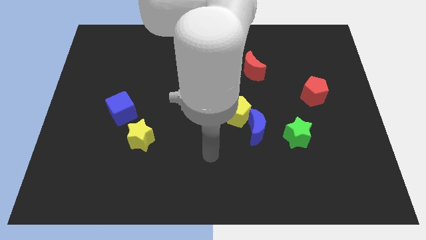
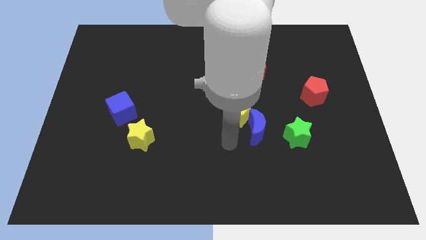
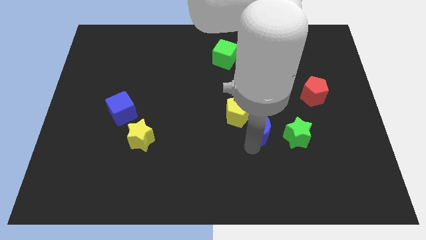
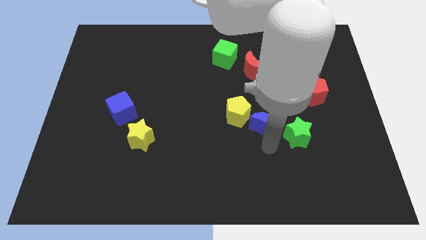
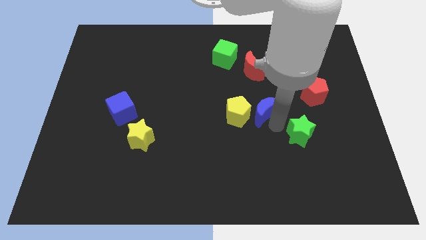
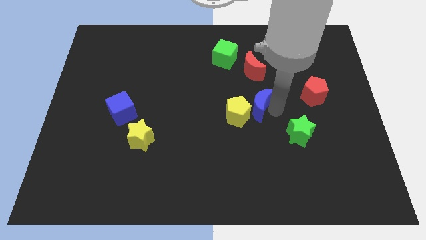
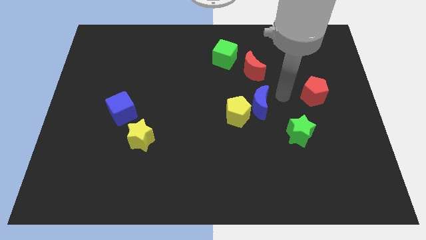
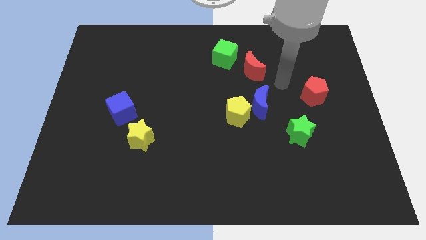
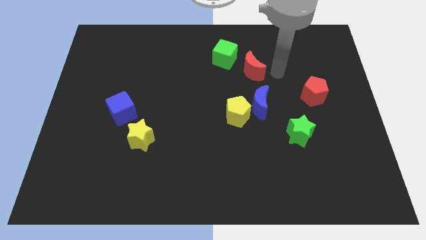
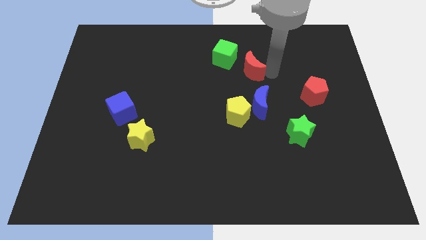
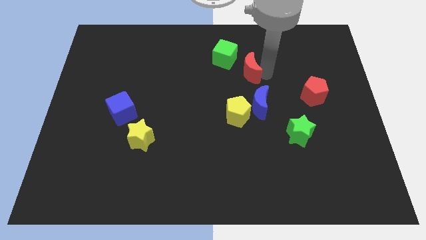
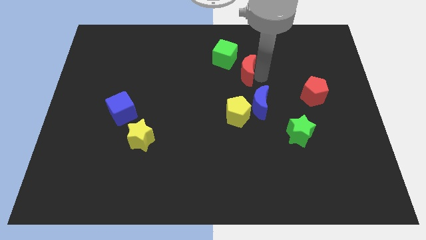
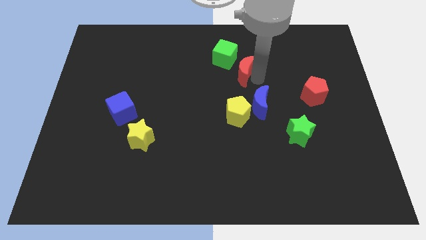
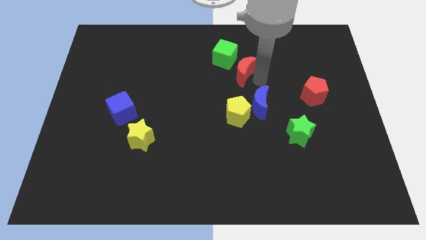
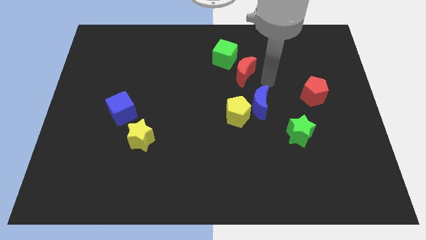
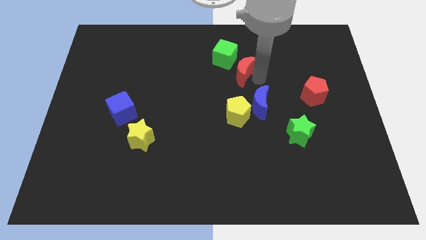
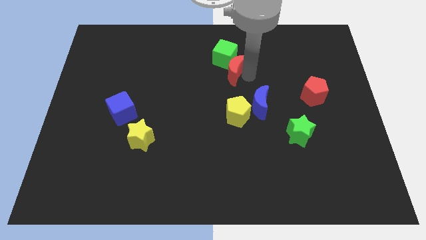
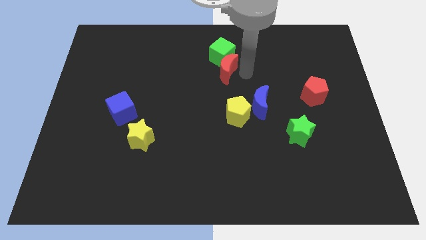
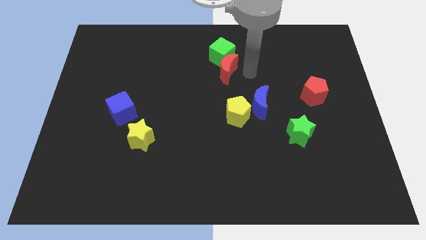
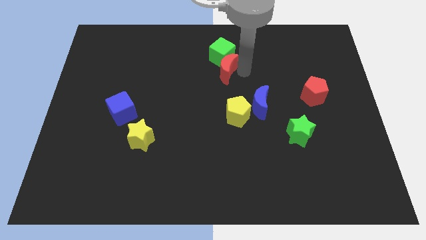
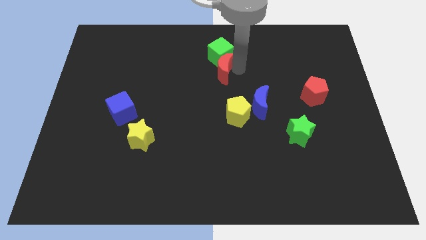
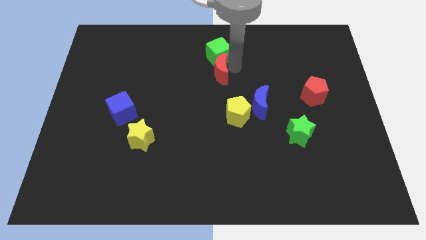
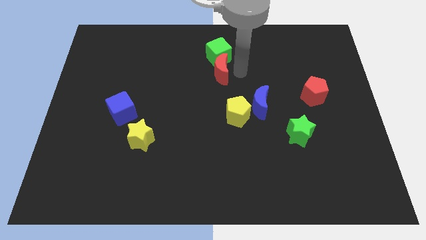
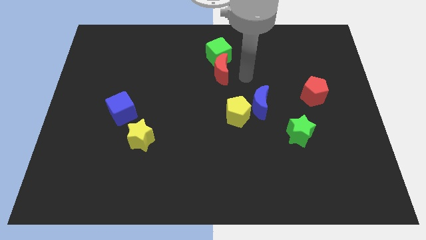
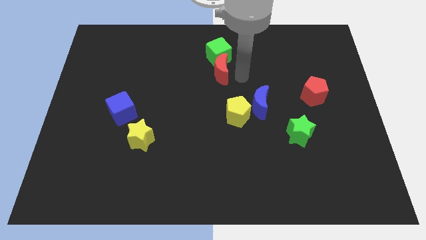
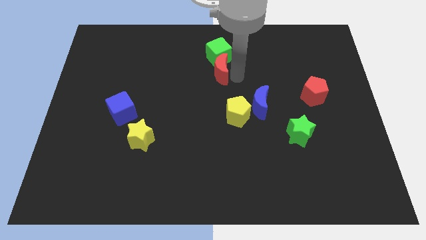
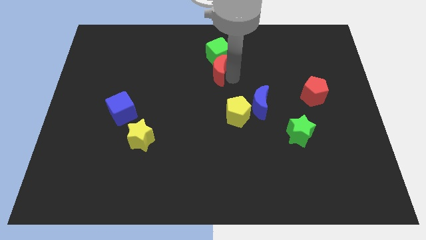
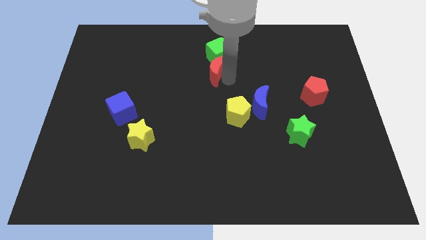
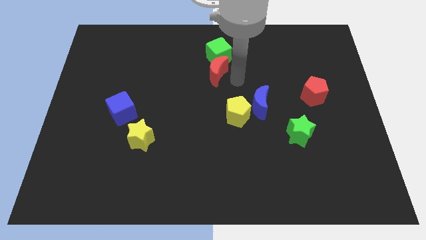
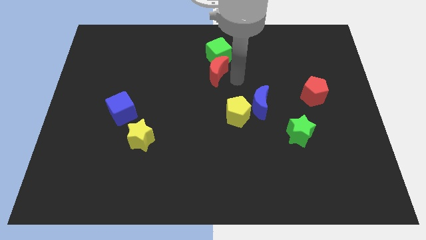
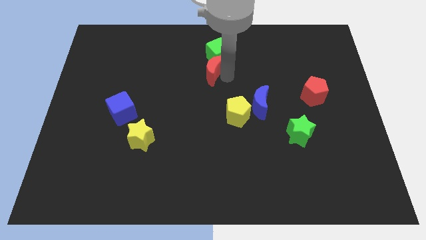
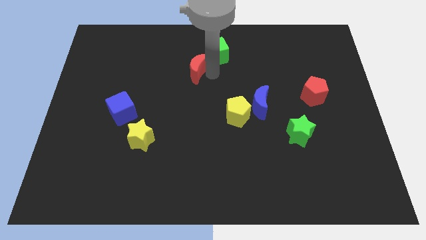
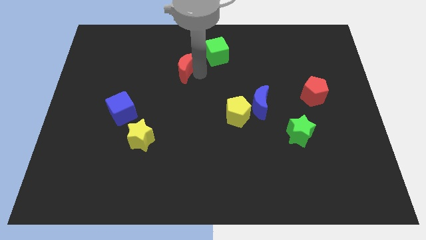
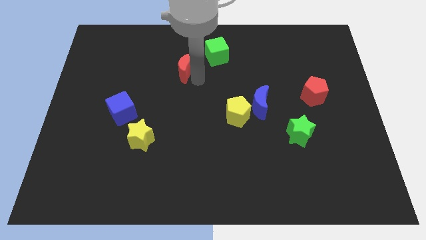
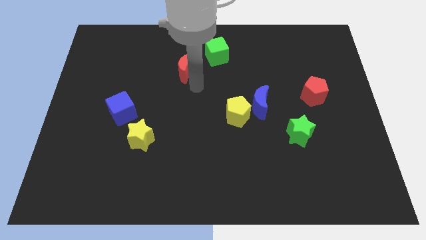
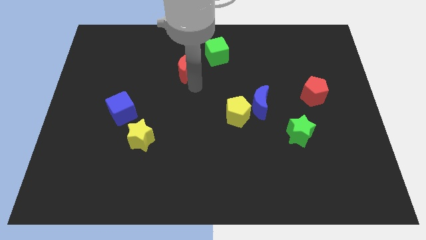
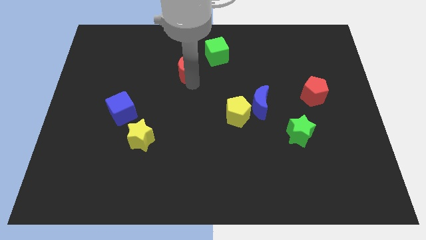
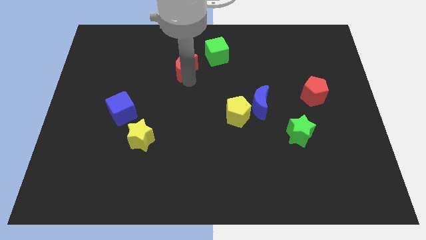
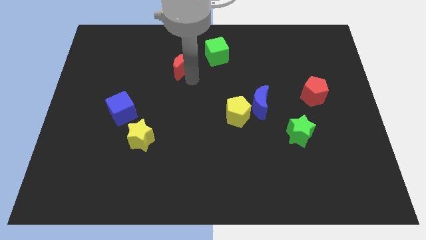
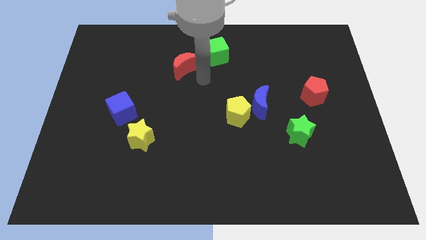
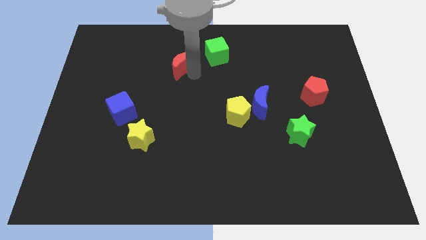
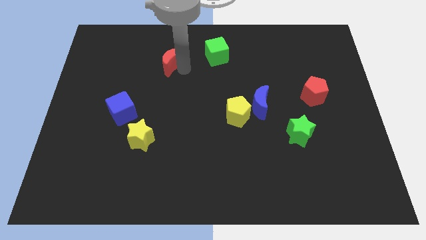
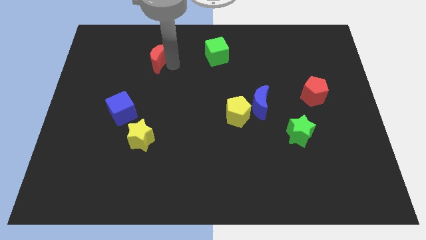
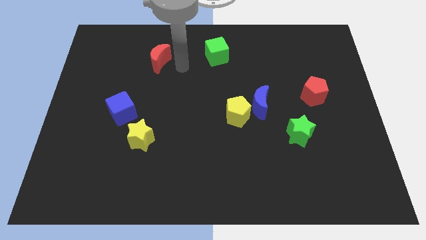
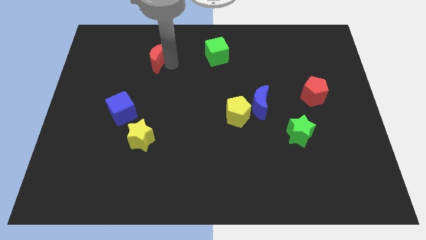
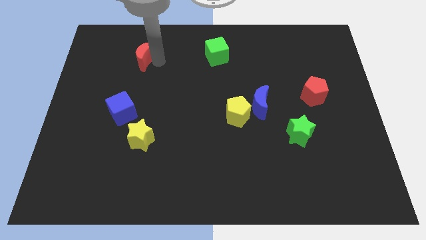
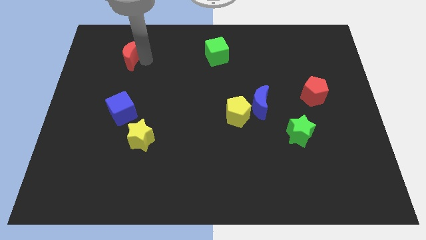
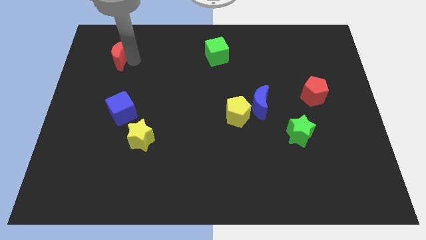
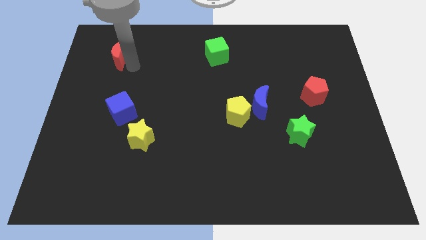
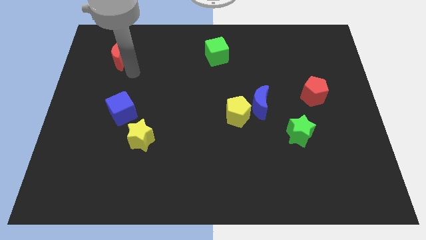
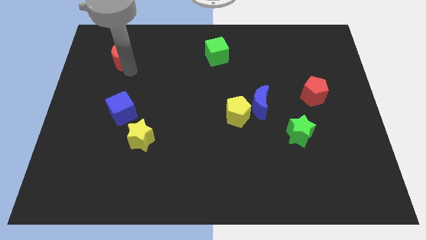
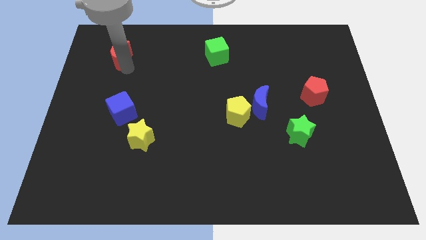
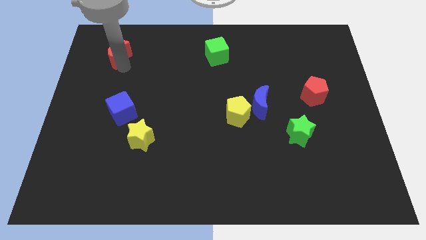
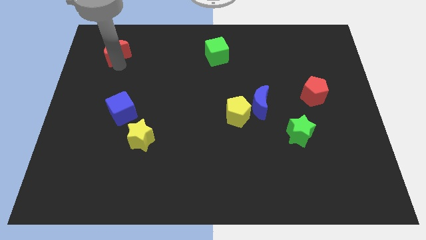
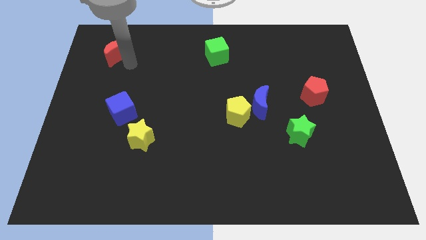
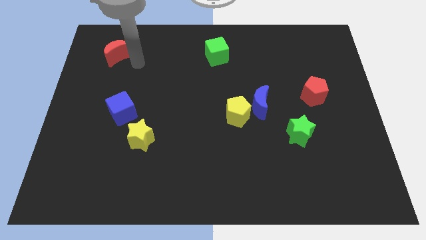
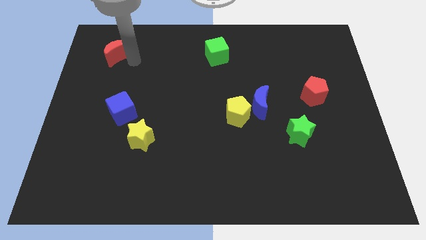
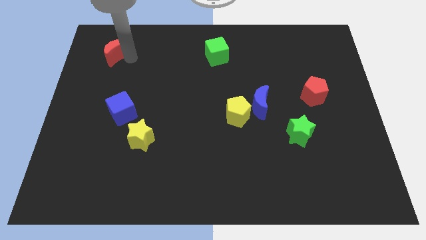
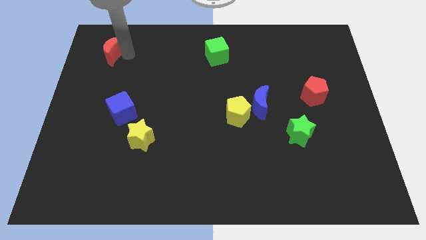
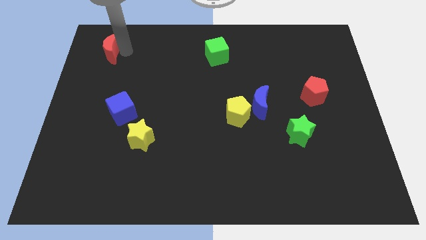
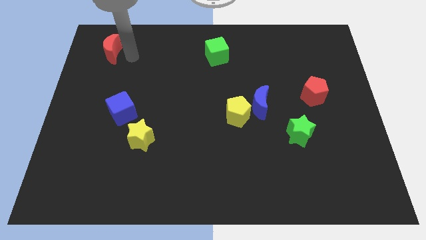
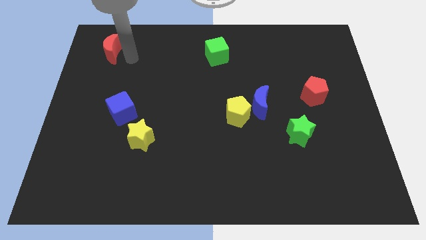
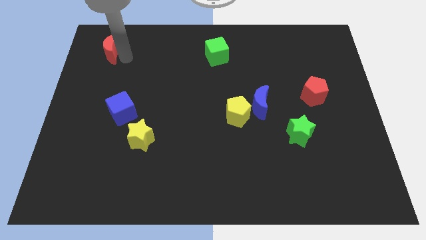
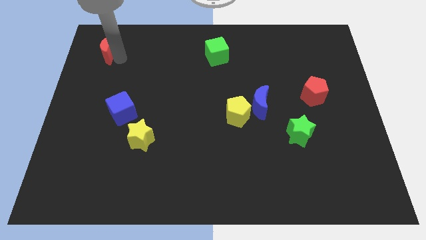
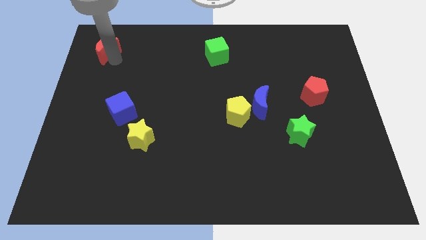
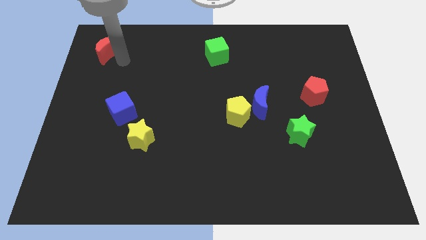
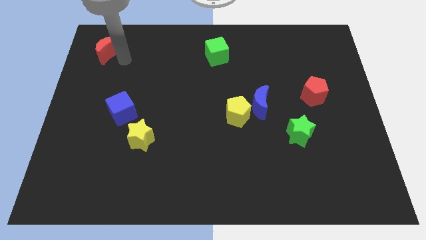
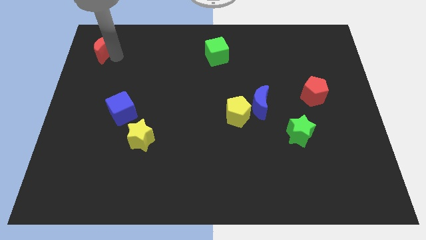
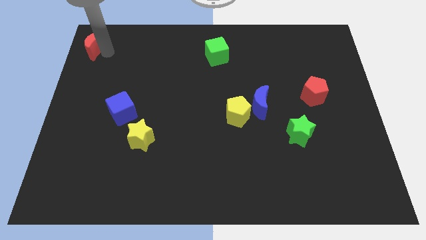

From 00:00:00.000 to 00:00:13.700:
slide the red moon to the top left of the board
